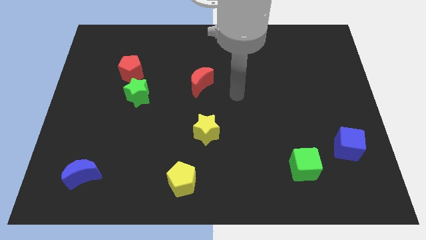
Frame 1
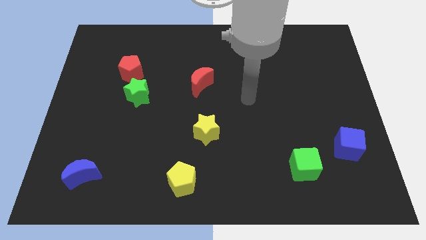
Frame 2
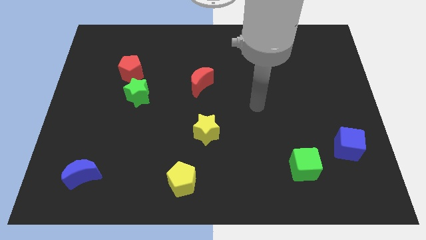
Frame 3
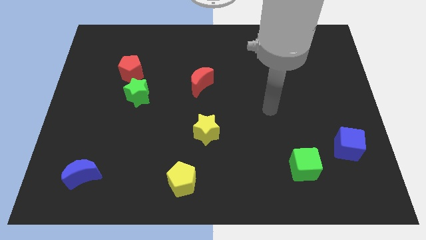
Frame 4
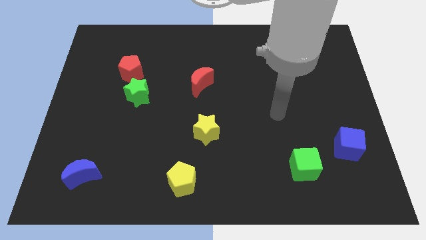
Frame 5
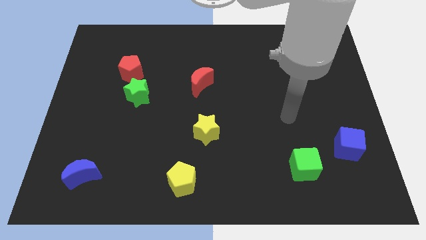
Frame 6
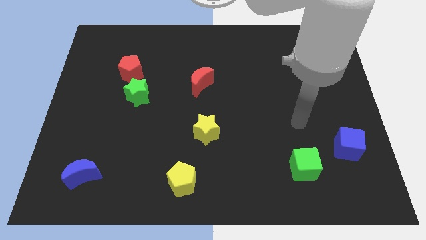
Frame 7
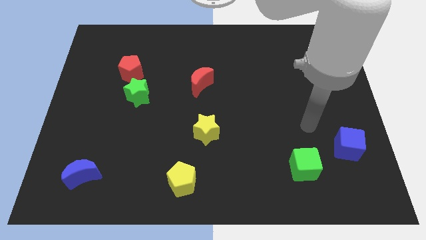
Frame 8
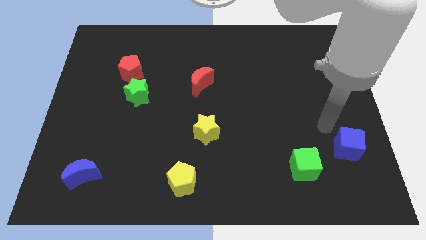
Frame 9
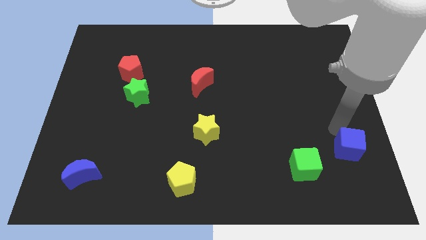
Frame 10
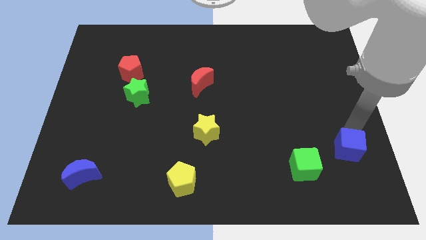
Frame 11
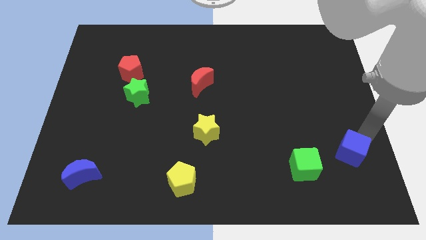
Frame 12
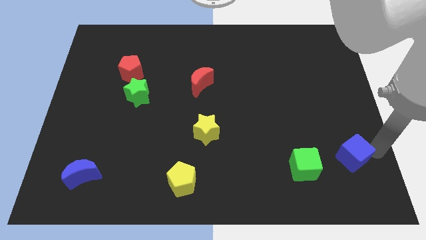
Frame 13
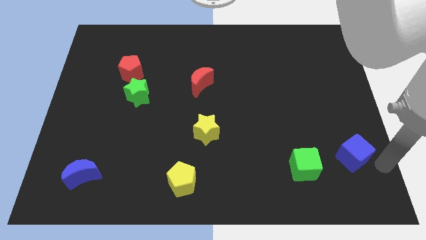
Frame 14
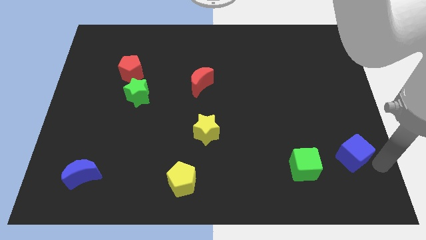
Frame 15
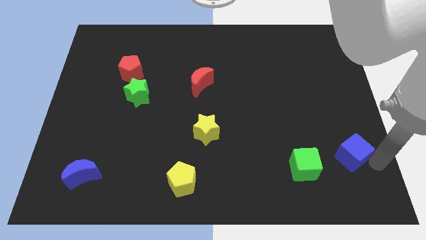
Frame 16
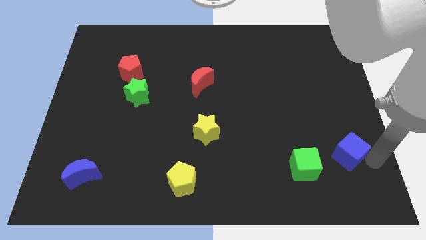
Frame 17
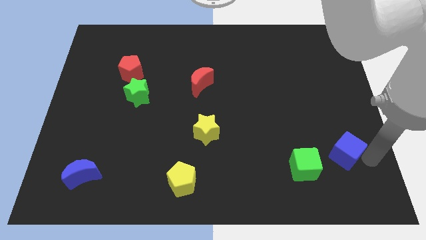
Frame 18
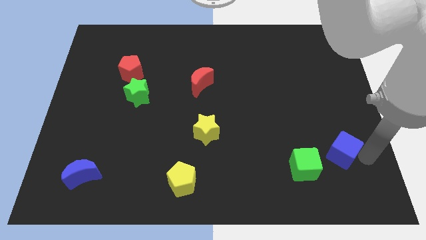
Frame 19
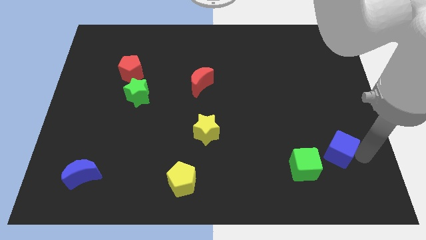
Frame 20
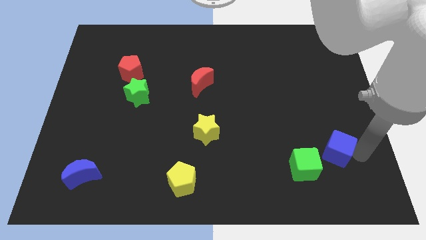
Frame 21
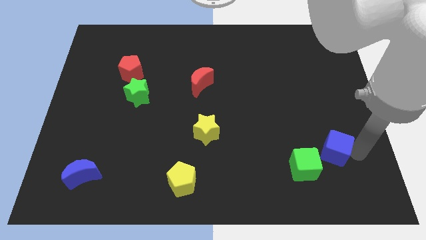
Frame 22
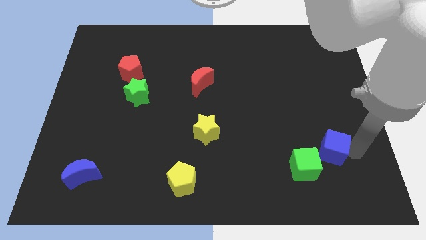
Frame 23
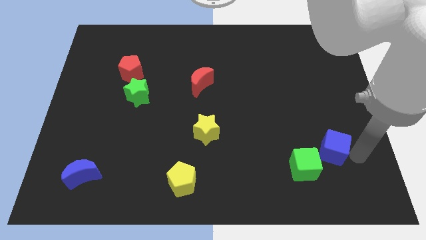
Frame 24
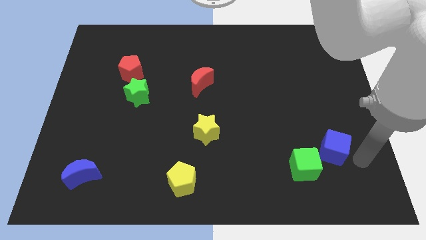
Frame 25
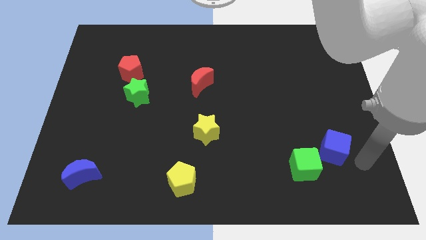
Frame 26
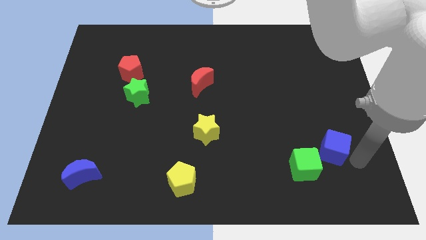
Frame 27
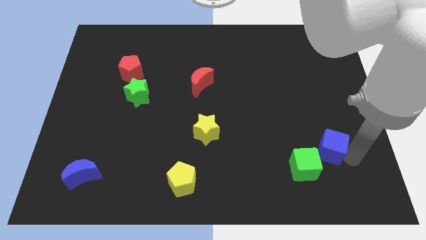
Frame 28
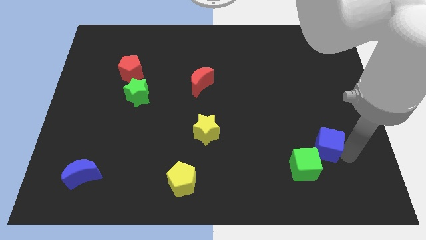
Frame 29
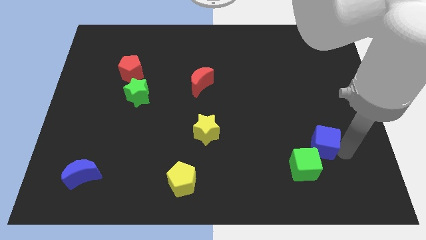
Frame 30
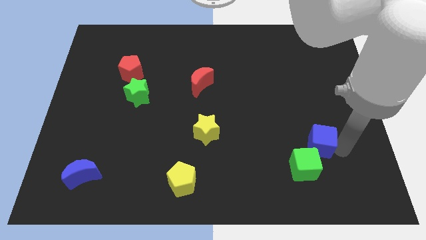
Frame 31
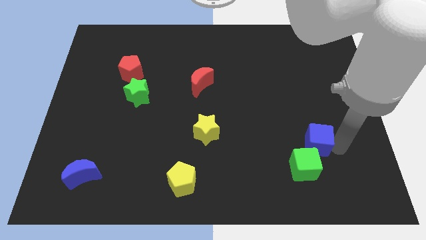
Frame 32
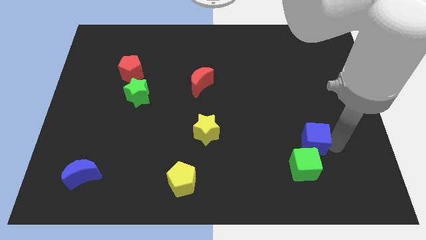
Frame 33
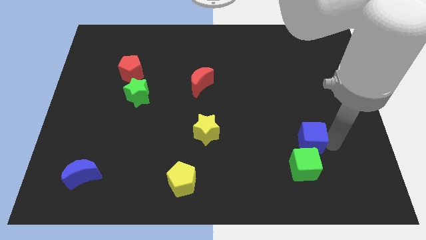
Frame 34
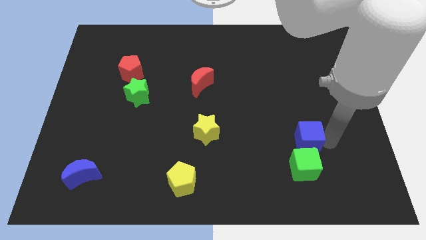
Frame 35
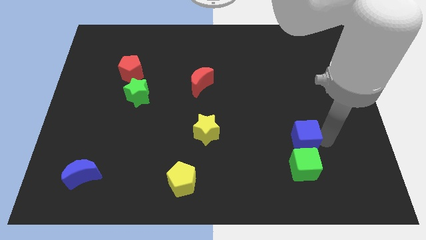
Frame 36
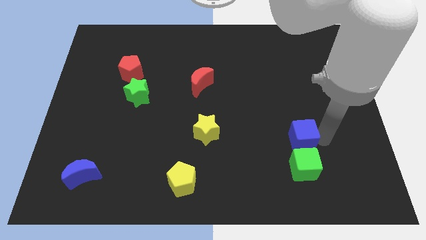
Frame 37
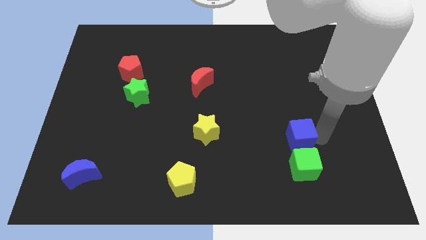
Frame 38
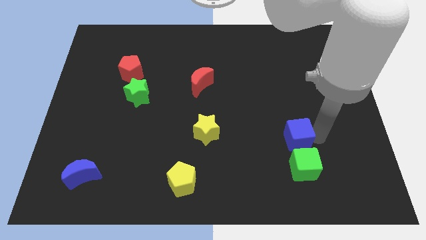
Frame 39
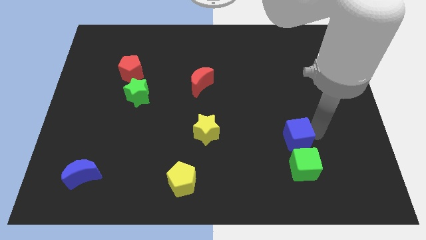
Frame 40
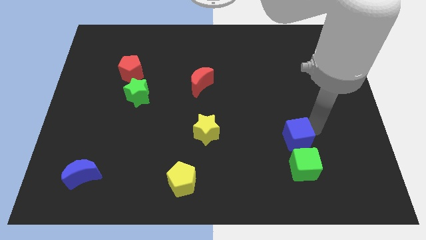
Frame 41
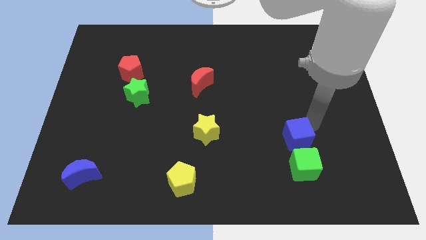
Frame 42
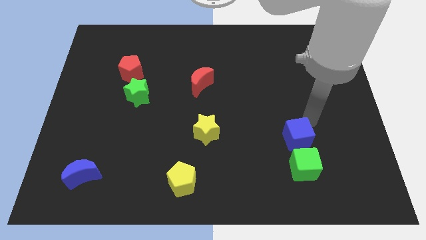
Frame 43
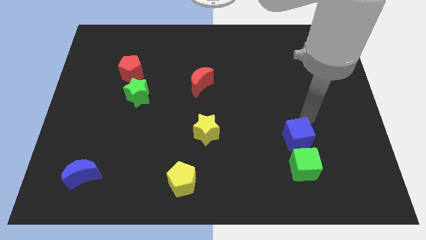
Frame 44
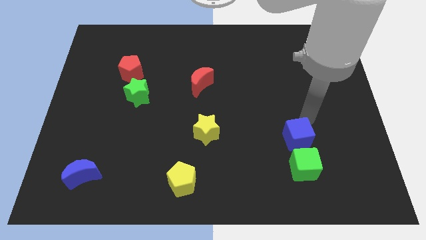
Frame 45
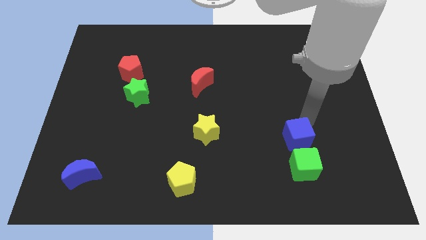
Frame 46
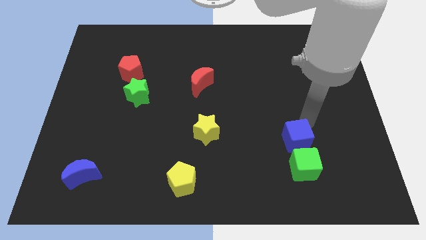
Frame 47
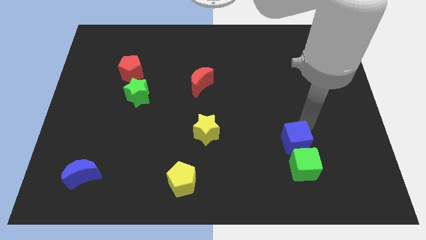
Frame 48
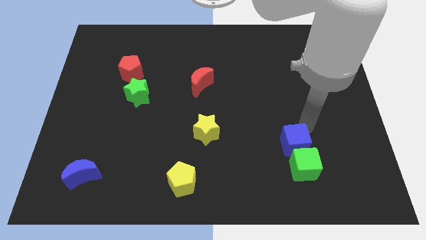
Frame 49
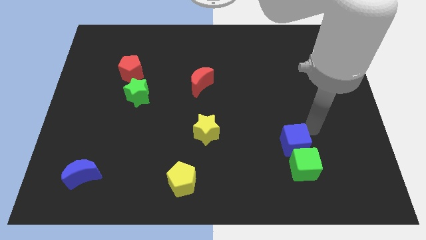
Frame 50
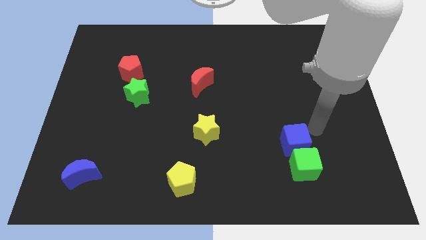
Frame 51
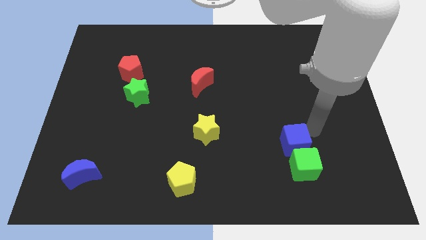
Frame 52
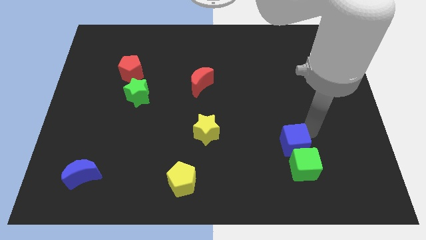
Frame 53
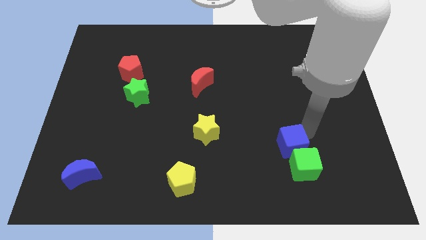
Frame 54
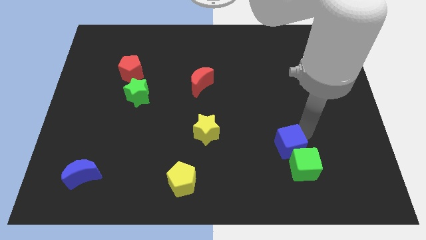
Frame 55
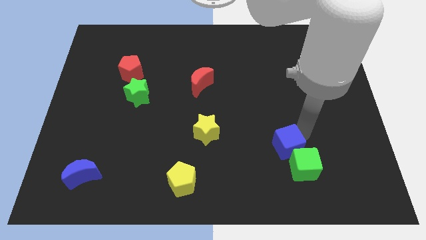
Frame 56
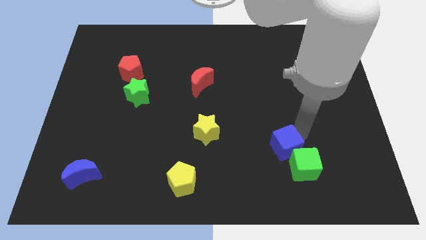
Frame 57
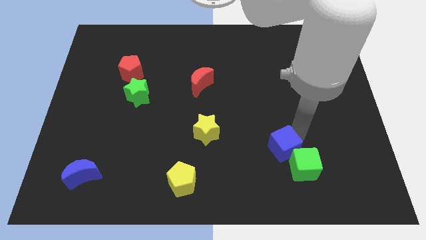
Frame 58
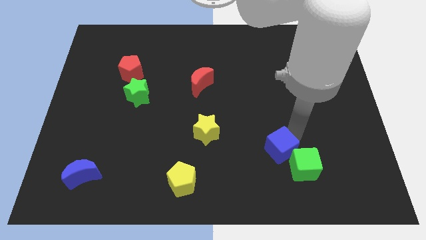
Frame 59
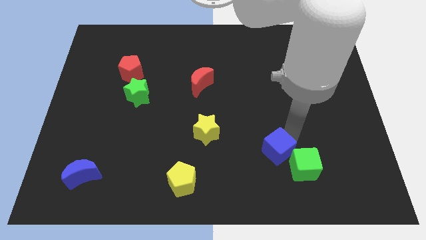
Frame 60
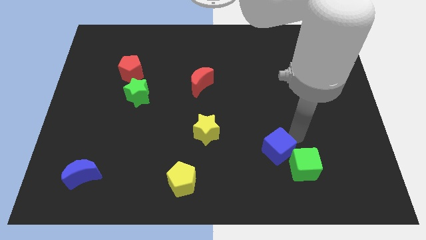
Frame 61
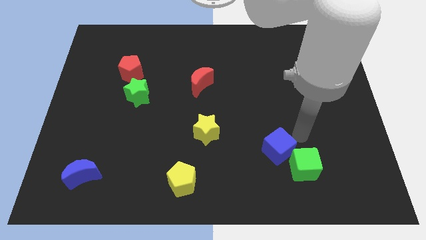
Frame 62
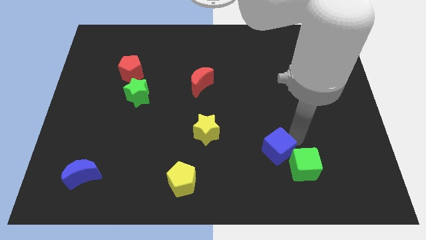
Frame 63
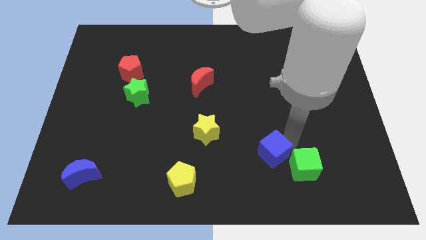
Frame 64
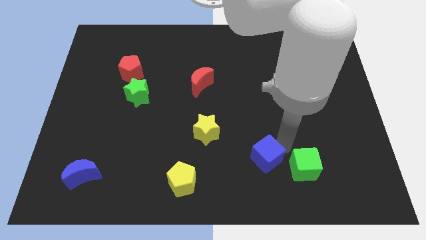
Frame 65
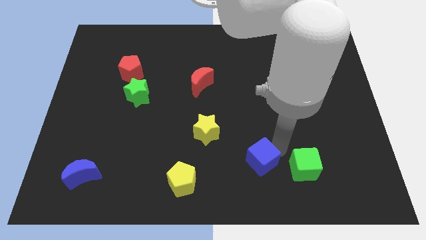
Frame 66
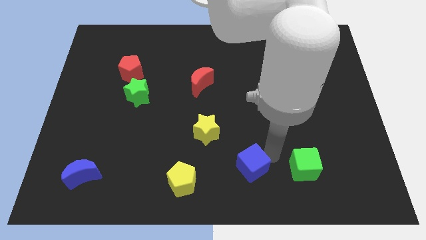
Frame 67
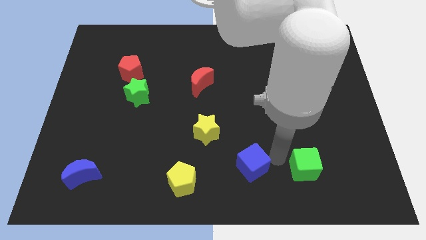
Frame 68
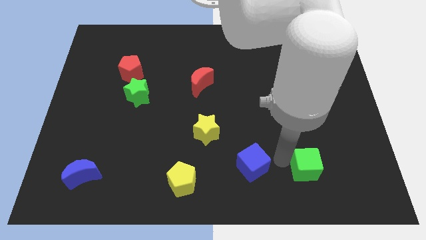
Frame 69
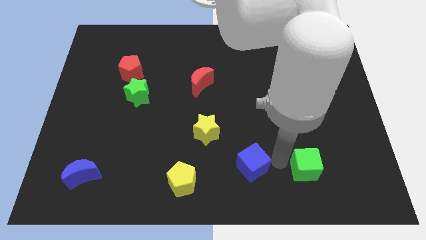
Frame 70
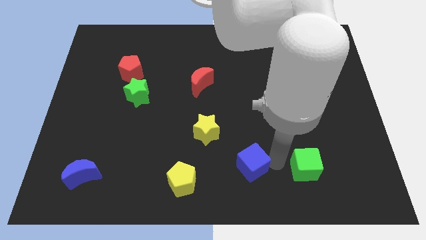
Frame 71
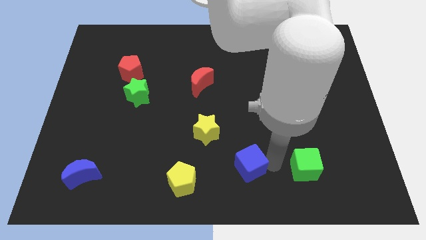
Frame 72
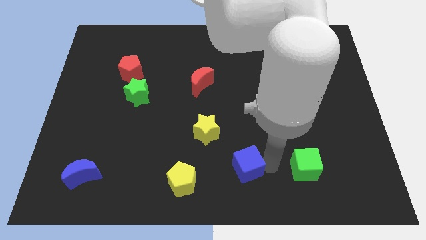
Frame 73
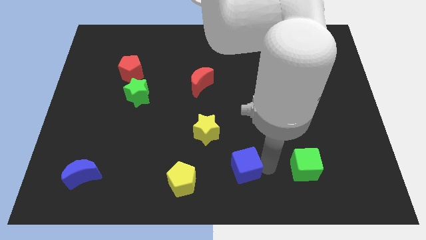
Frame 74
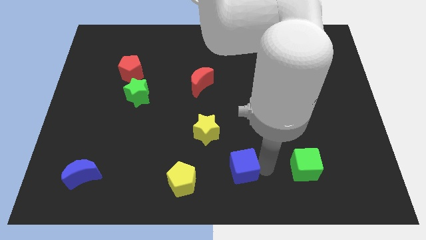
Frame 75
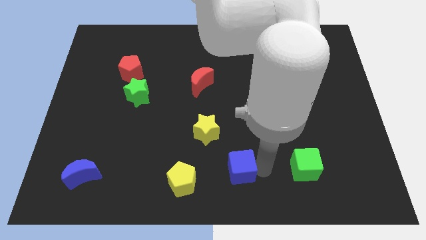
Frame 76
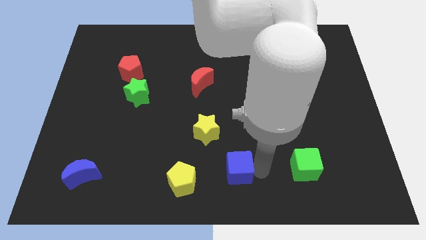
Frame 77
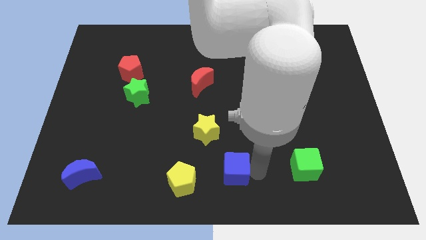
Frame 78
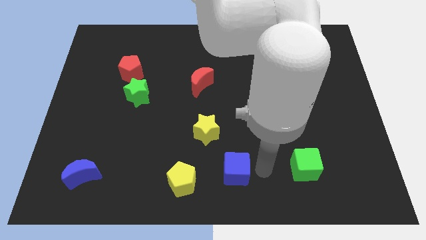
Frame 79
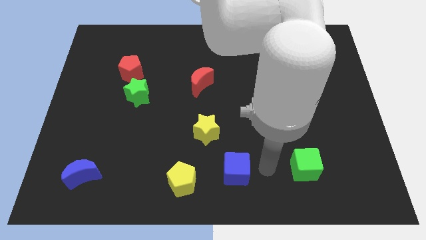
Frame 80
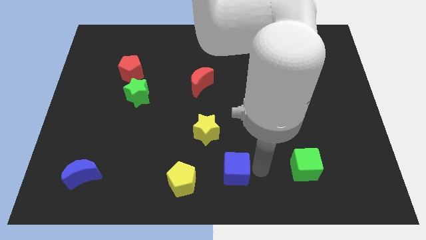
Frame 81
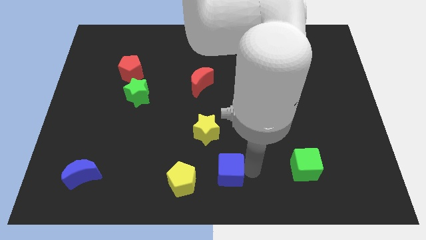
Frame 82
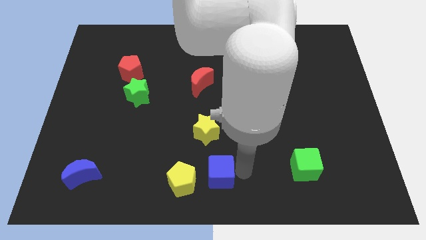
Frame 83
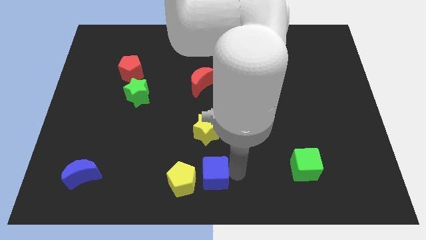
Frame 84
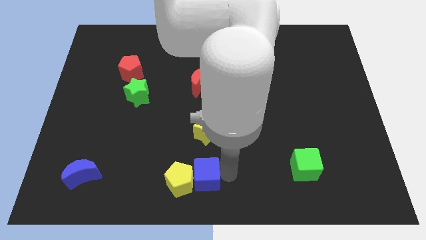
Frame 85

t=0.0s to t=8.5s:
push the blue cube towards the yellow pentagon

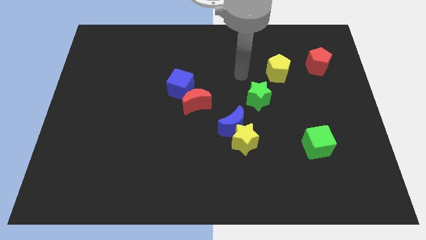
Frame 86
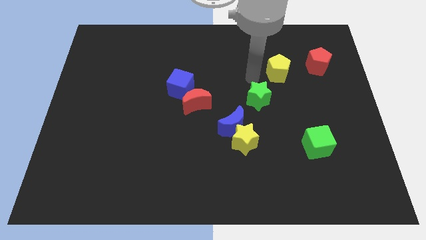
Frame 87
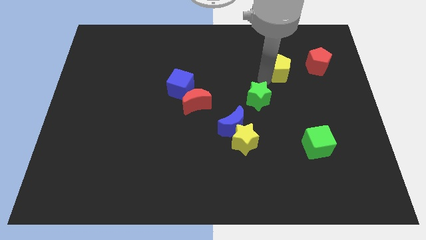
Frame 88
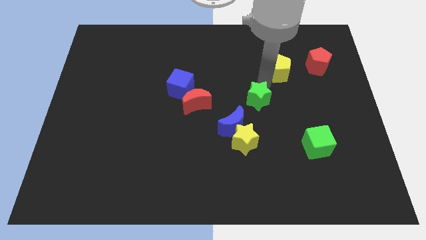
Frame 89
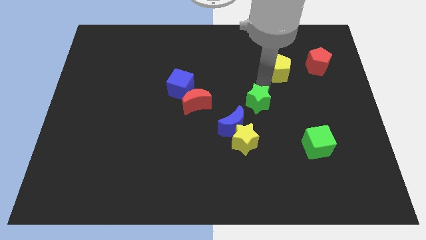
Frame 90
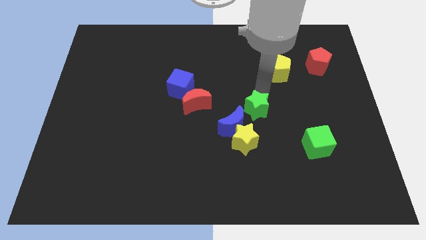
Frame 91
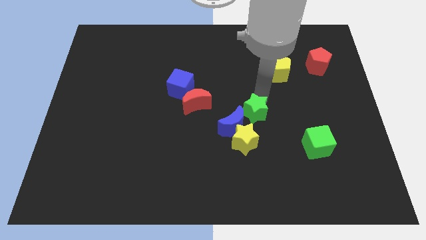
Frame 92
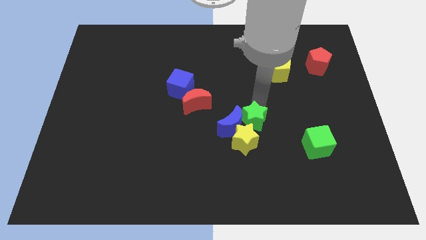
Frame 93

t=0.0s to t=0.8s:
push the green star close to the yellow star
